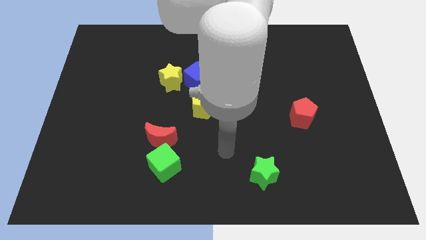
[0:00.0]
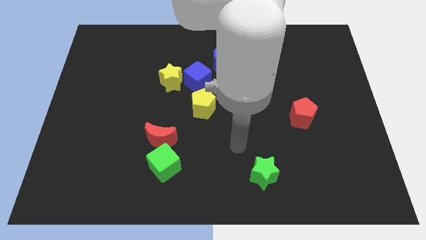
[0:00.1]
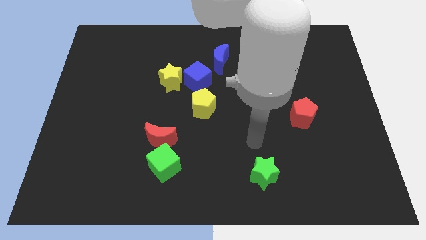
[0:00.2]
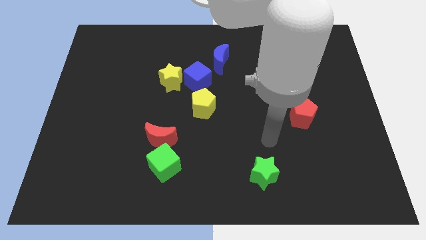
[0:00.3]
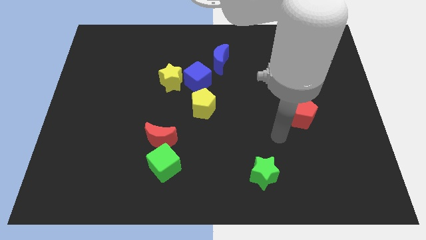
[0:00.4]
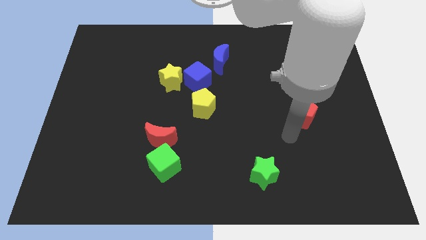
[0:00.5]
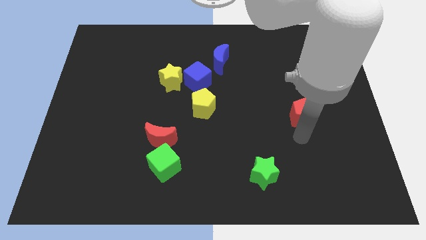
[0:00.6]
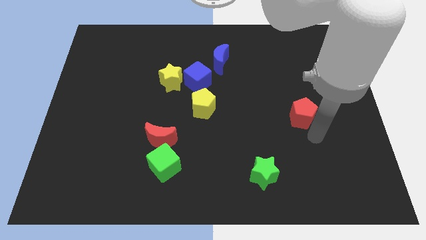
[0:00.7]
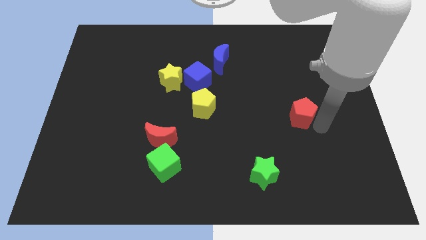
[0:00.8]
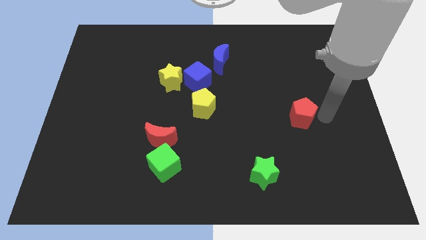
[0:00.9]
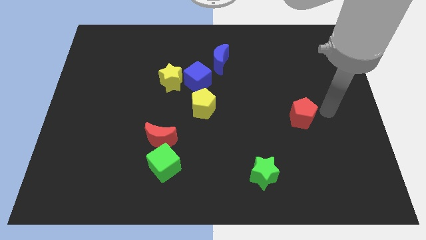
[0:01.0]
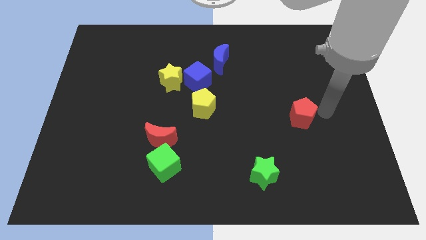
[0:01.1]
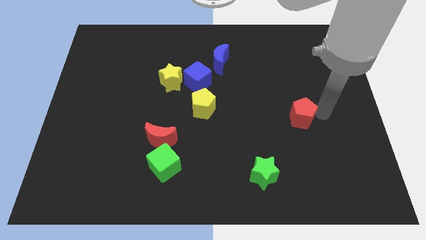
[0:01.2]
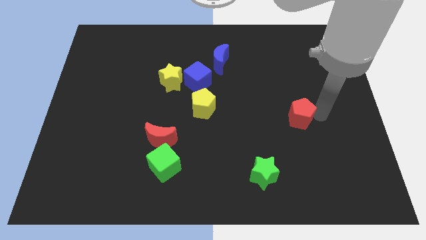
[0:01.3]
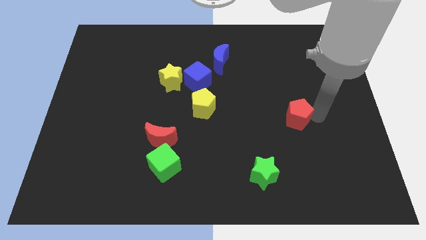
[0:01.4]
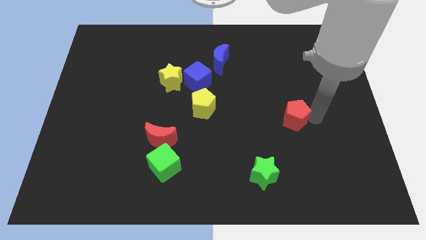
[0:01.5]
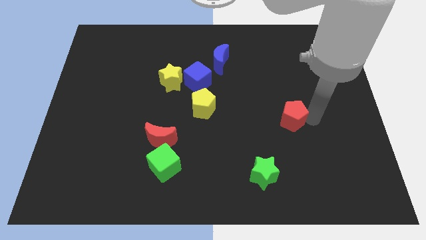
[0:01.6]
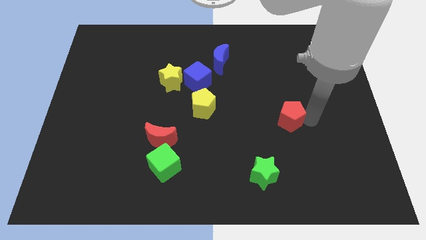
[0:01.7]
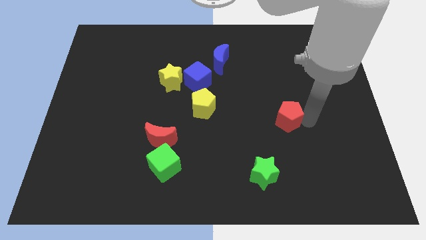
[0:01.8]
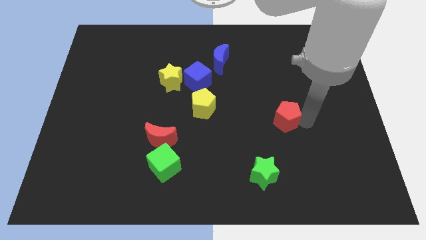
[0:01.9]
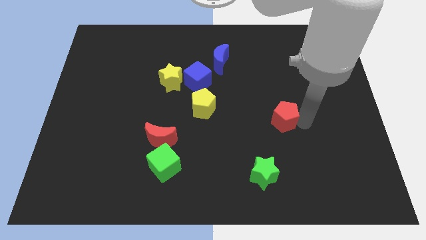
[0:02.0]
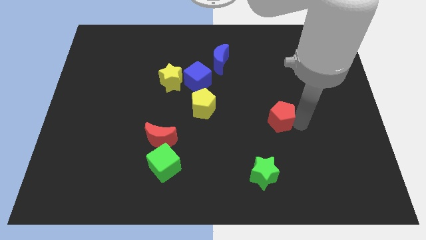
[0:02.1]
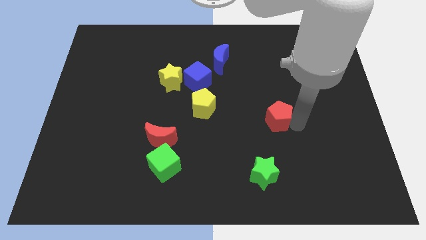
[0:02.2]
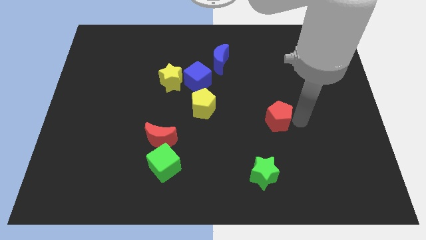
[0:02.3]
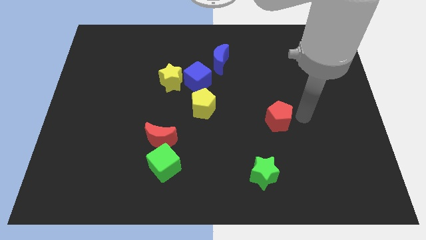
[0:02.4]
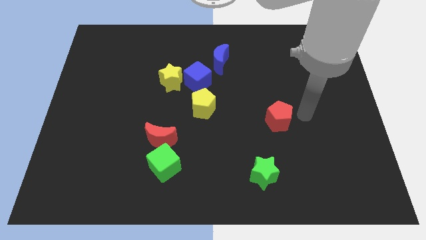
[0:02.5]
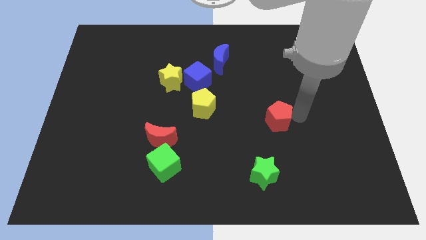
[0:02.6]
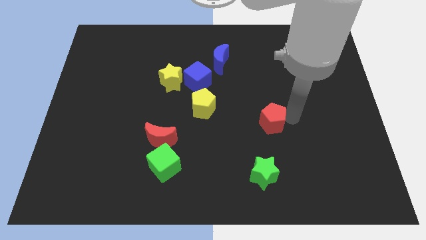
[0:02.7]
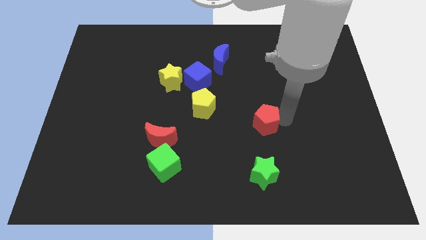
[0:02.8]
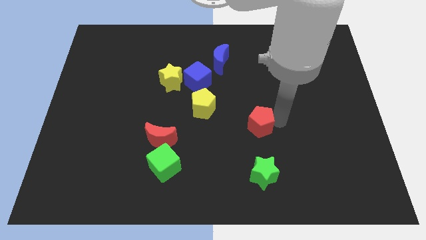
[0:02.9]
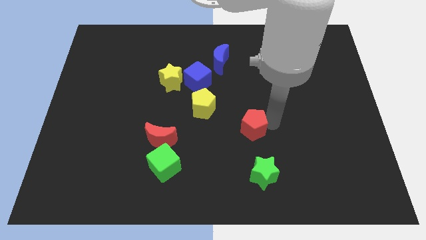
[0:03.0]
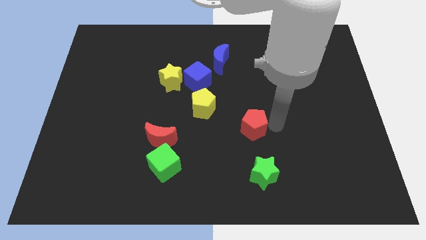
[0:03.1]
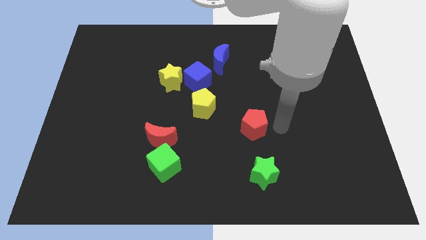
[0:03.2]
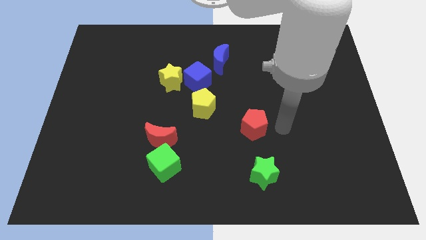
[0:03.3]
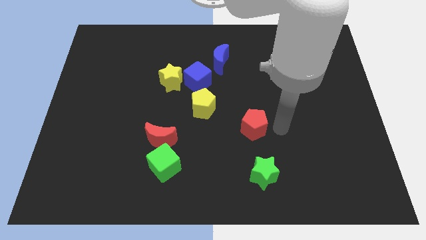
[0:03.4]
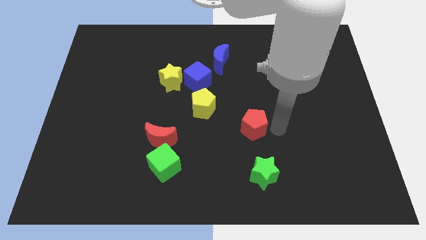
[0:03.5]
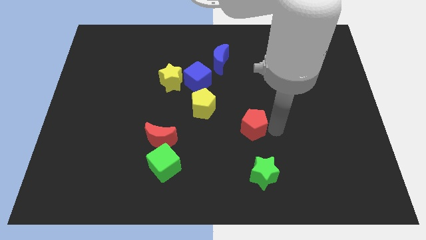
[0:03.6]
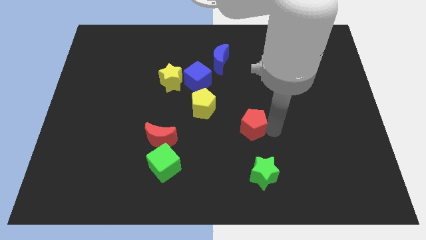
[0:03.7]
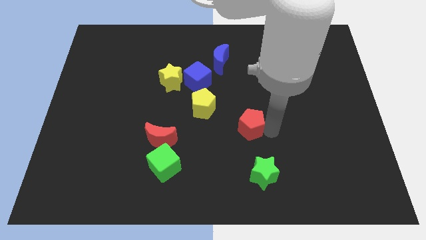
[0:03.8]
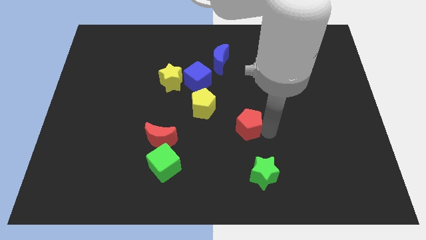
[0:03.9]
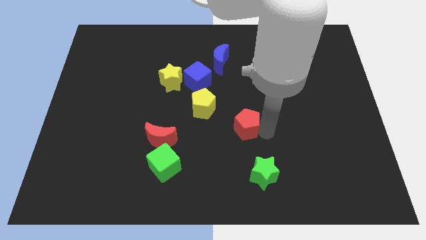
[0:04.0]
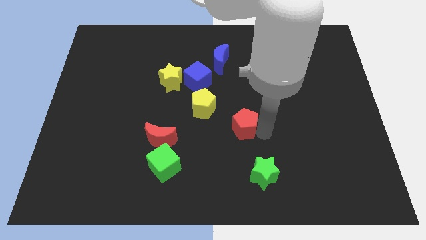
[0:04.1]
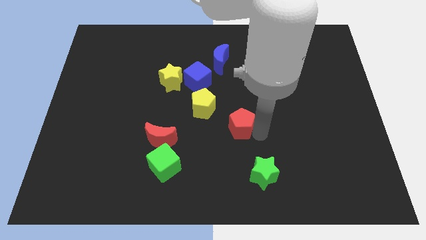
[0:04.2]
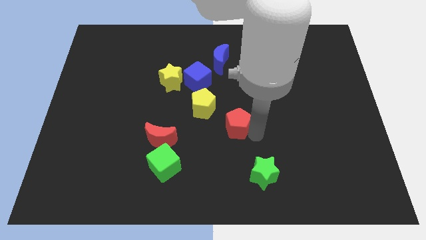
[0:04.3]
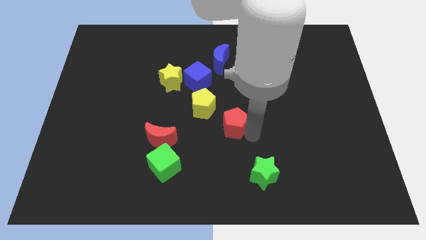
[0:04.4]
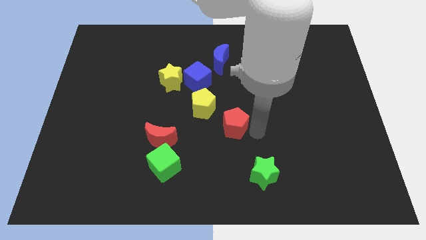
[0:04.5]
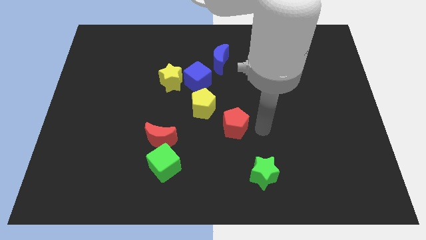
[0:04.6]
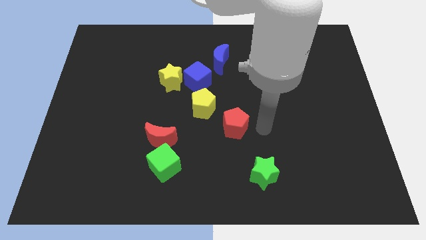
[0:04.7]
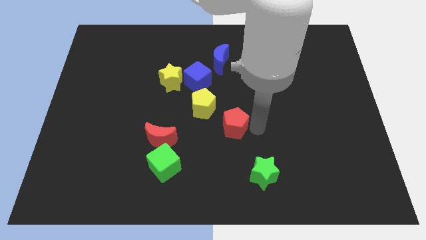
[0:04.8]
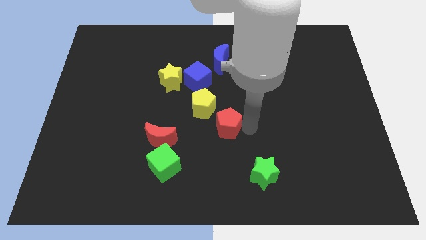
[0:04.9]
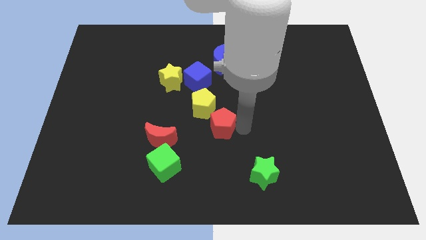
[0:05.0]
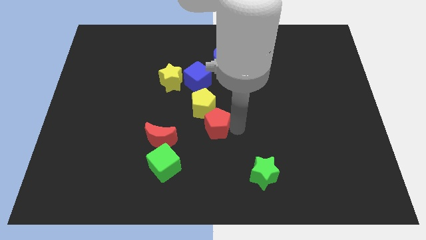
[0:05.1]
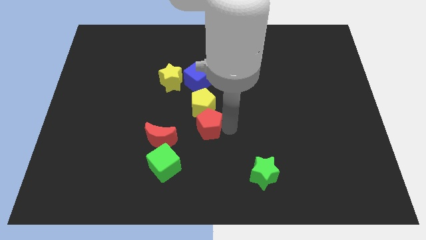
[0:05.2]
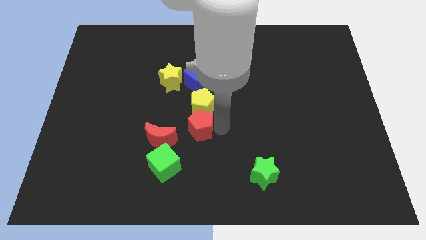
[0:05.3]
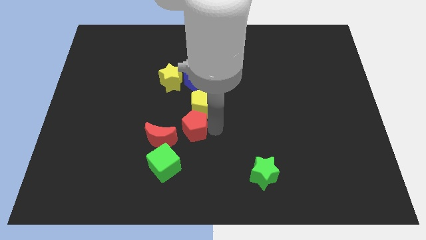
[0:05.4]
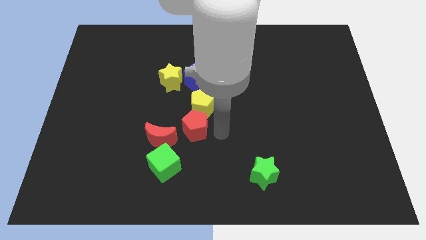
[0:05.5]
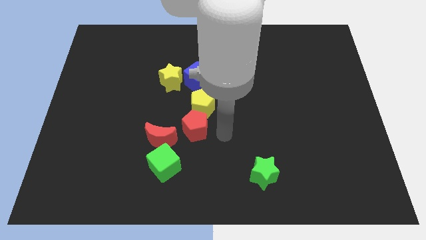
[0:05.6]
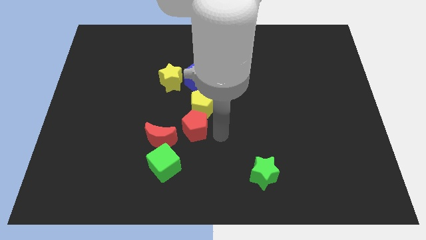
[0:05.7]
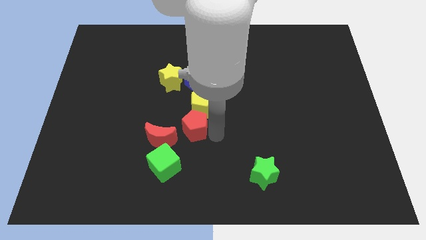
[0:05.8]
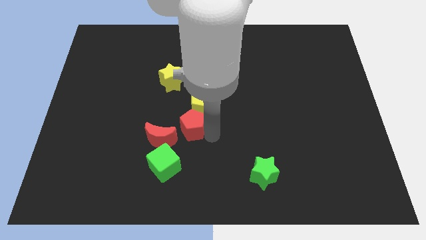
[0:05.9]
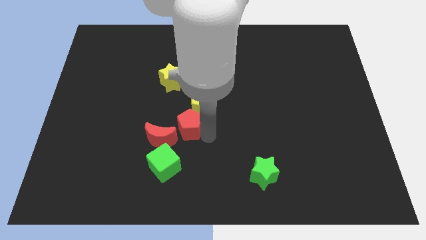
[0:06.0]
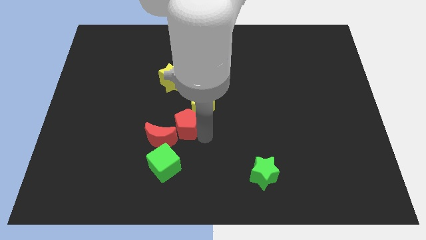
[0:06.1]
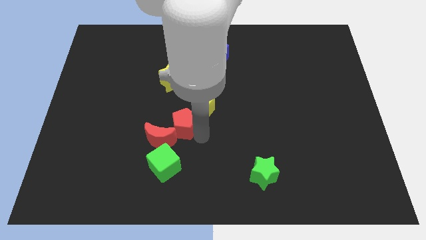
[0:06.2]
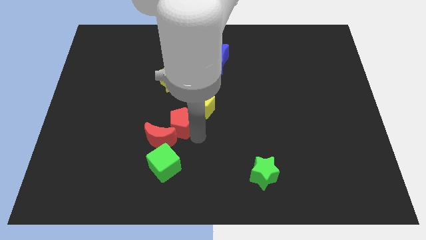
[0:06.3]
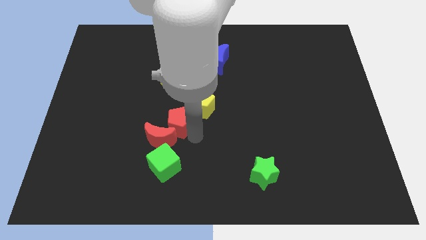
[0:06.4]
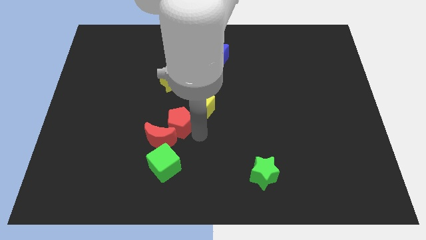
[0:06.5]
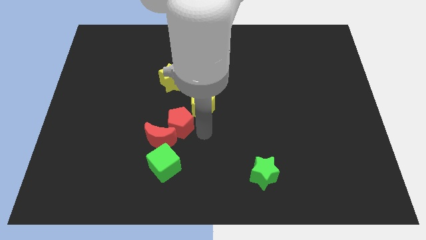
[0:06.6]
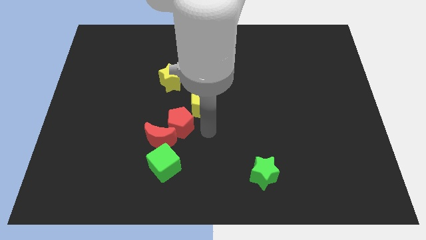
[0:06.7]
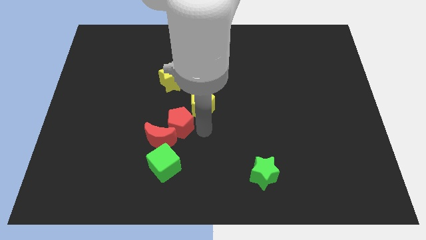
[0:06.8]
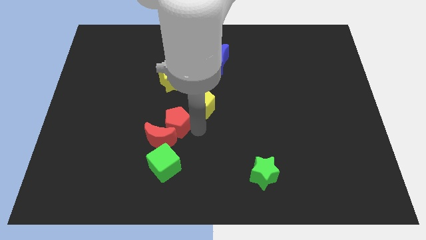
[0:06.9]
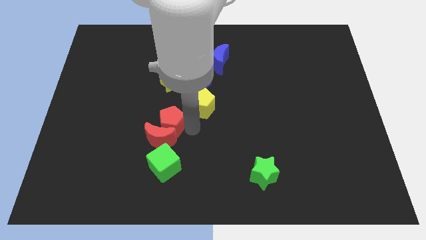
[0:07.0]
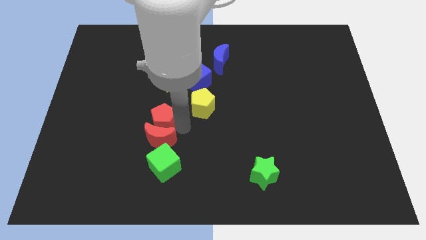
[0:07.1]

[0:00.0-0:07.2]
put the red pentagon diagonally up and to the left of the red moon
